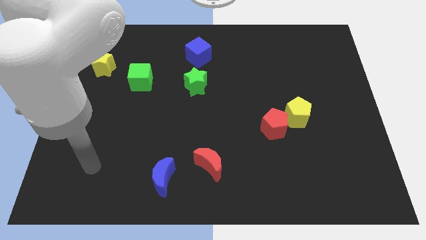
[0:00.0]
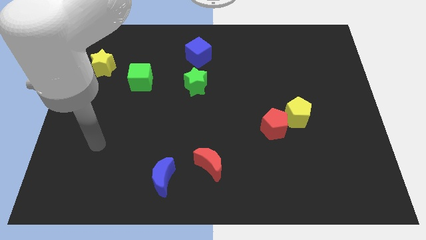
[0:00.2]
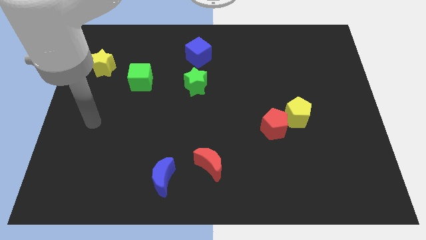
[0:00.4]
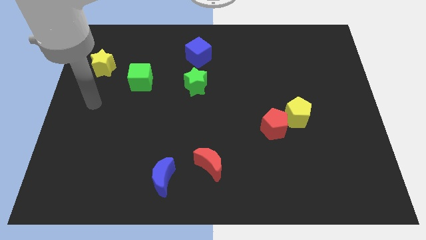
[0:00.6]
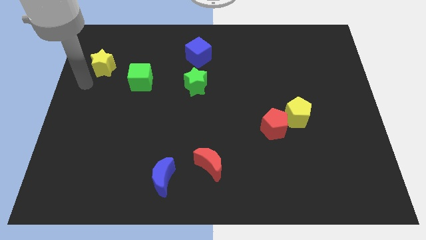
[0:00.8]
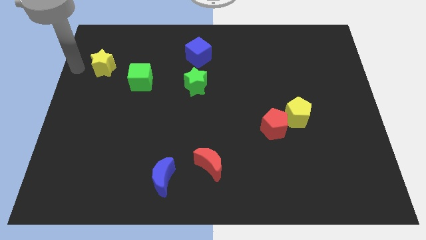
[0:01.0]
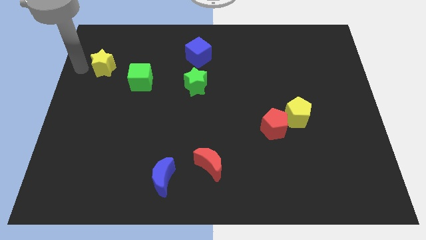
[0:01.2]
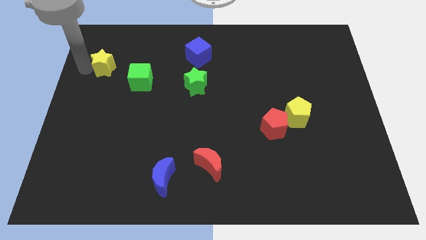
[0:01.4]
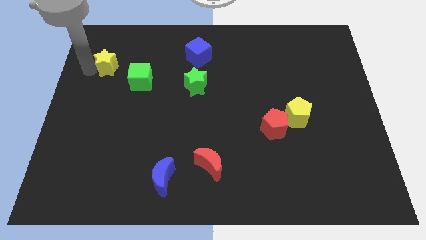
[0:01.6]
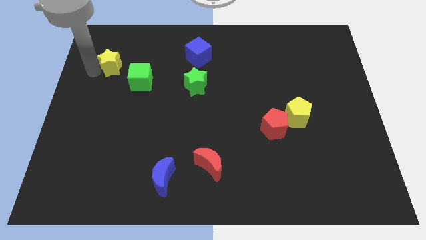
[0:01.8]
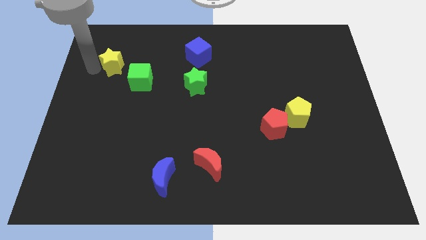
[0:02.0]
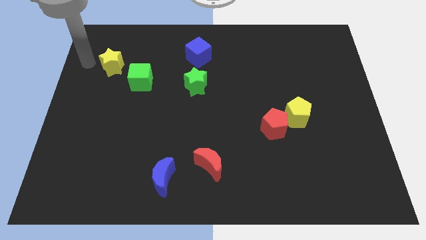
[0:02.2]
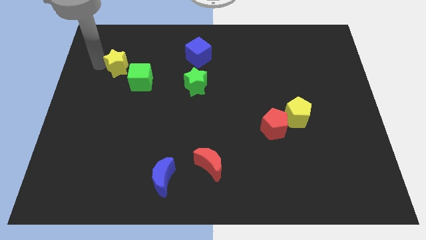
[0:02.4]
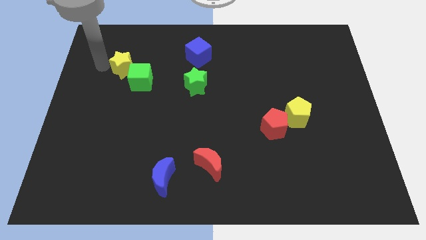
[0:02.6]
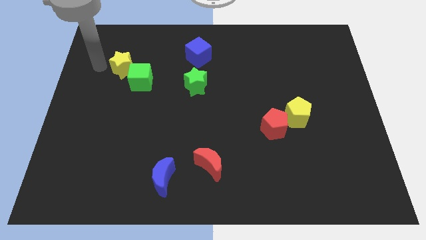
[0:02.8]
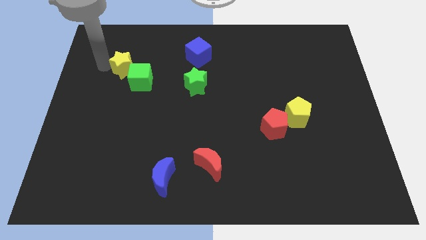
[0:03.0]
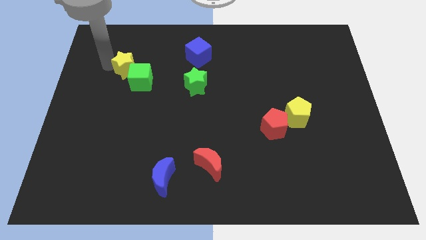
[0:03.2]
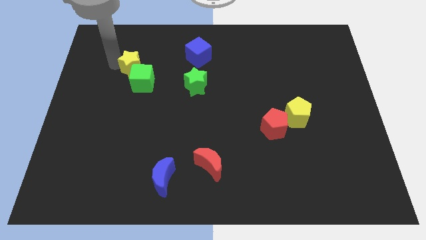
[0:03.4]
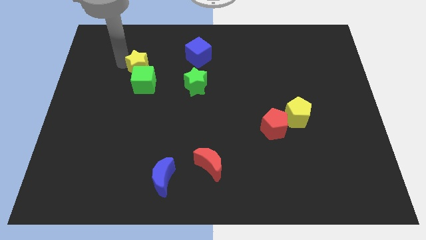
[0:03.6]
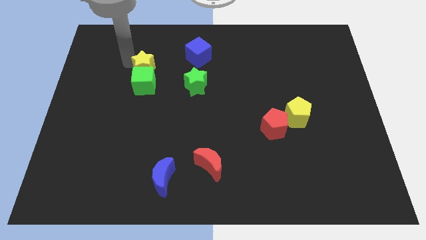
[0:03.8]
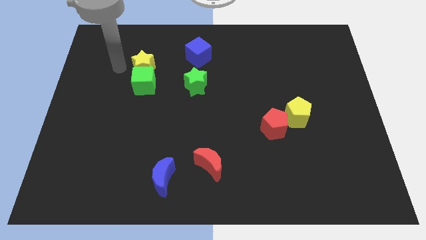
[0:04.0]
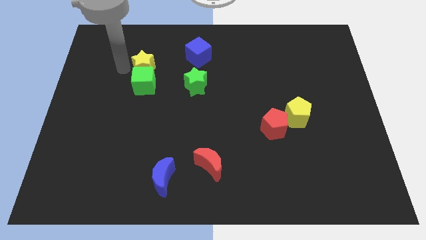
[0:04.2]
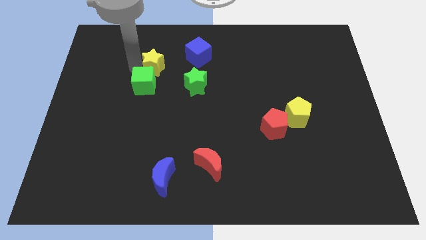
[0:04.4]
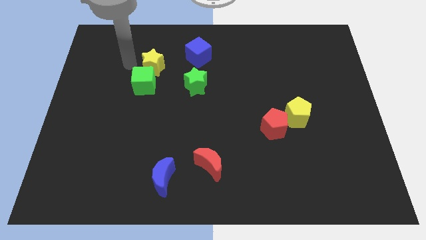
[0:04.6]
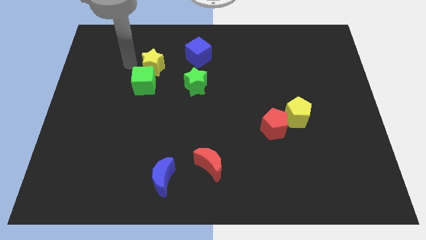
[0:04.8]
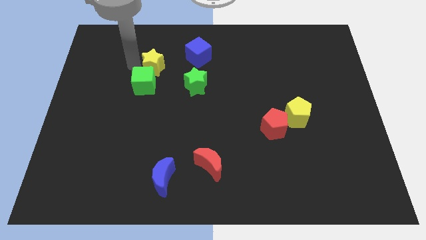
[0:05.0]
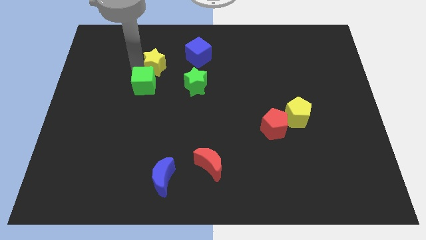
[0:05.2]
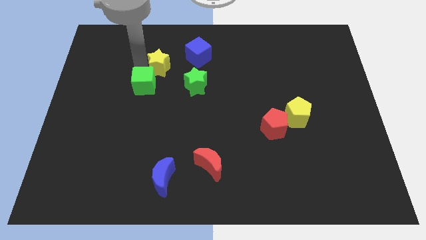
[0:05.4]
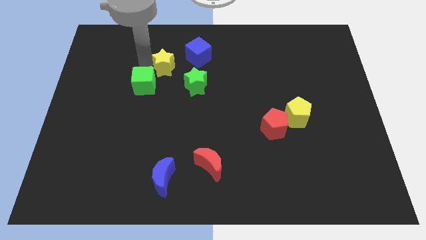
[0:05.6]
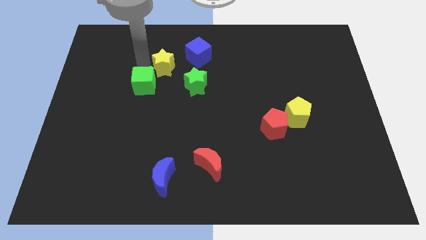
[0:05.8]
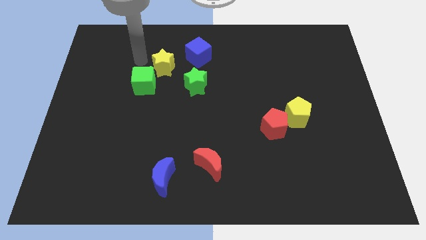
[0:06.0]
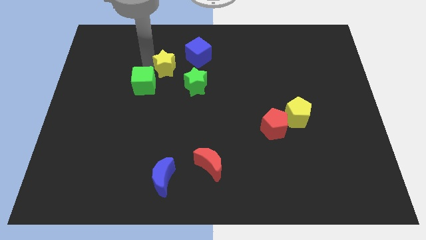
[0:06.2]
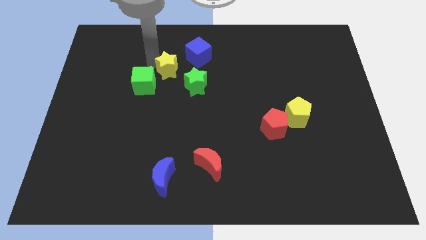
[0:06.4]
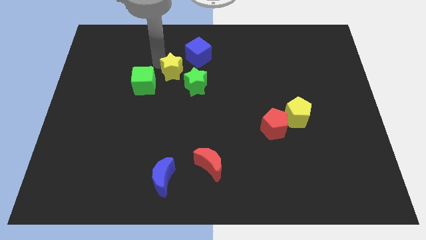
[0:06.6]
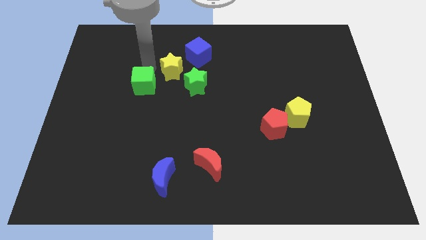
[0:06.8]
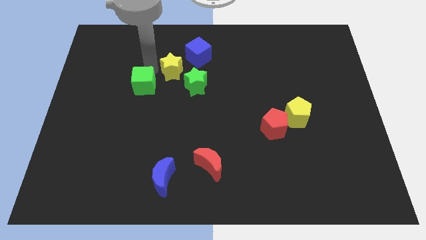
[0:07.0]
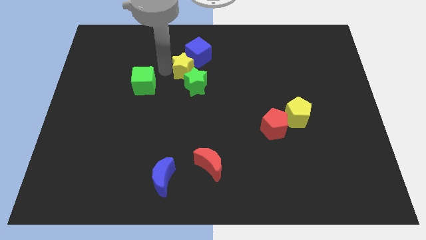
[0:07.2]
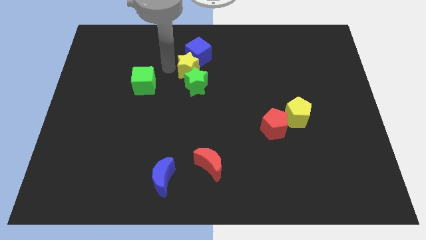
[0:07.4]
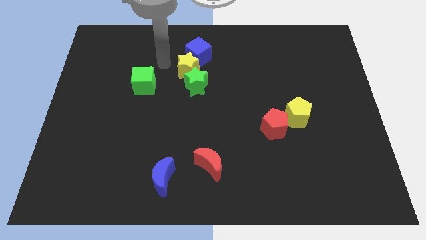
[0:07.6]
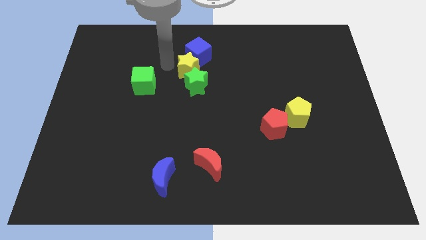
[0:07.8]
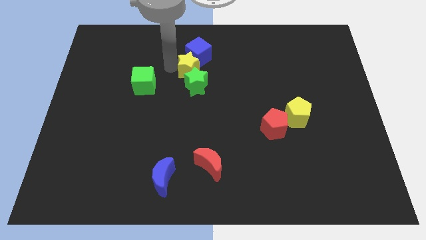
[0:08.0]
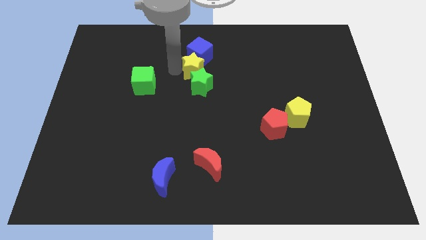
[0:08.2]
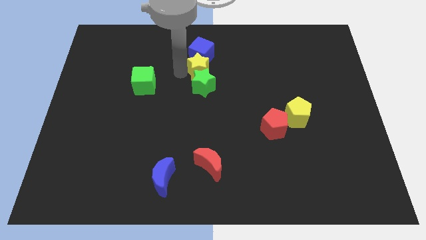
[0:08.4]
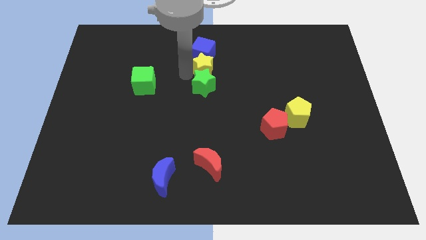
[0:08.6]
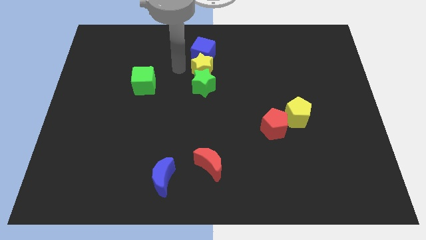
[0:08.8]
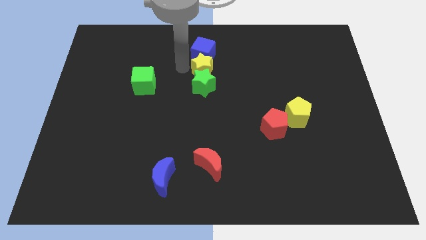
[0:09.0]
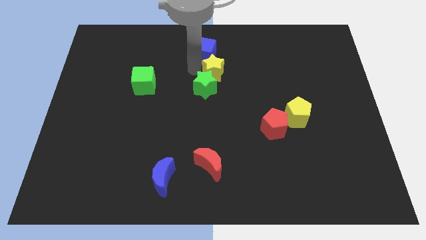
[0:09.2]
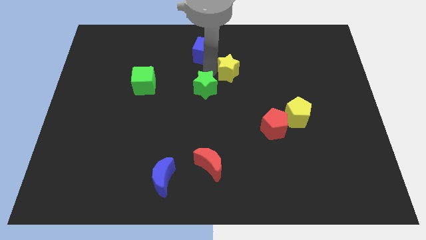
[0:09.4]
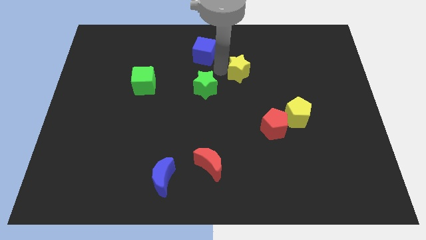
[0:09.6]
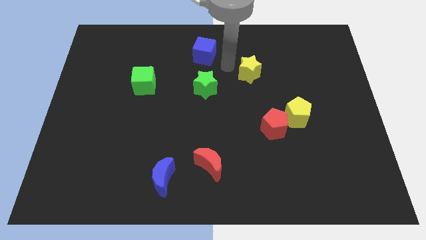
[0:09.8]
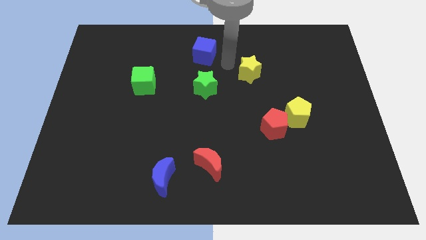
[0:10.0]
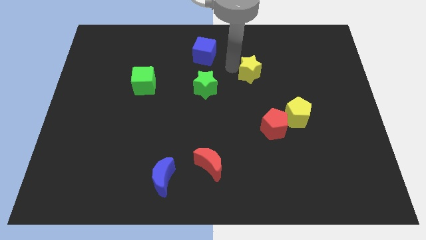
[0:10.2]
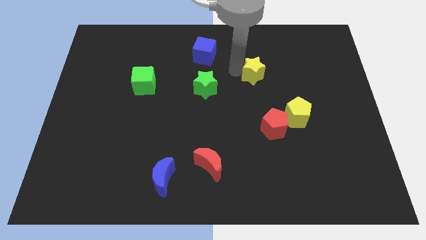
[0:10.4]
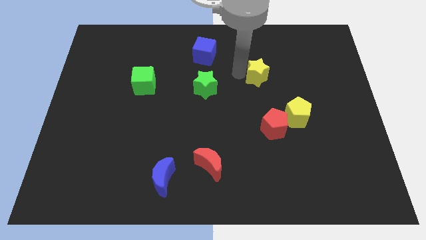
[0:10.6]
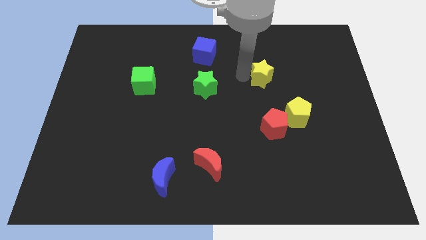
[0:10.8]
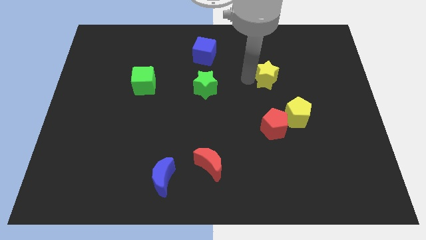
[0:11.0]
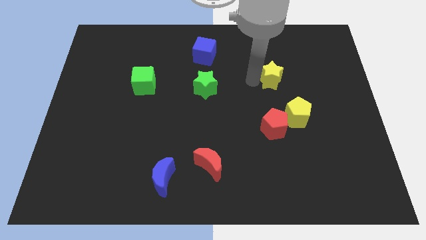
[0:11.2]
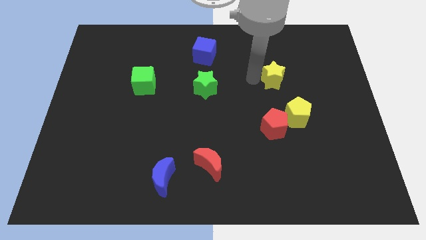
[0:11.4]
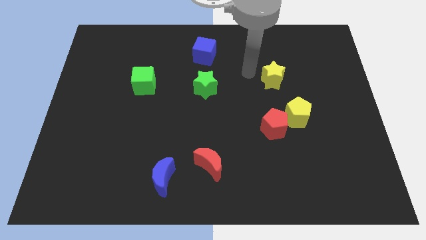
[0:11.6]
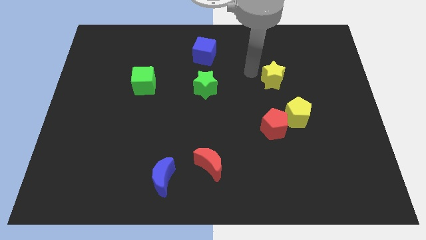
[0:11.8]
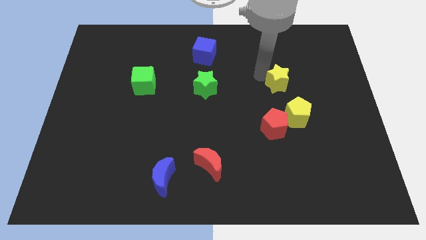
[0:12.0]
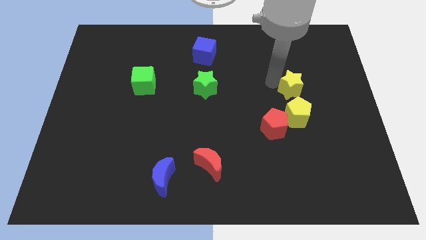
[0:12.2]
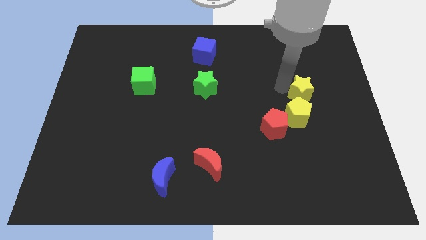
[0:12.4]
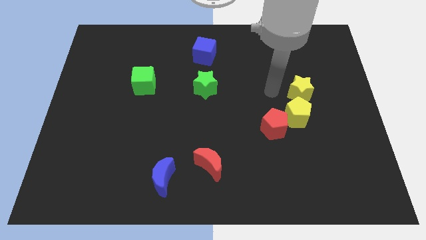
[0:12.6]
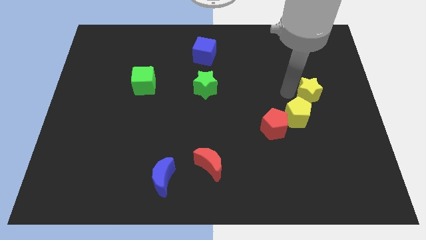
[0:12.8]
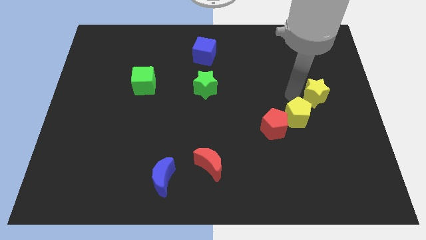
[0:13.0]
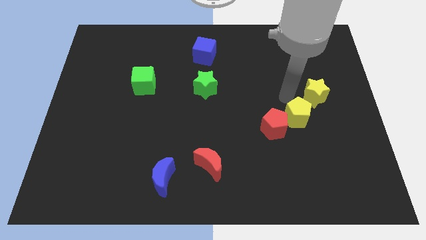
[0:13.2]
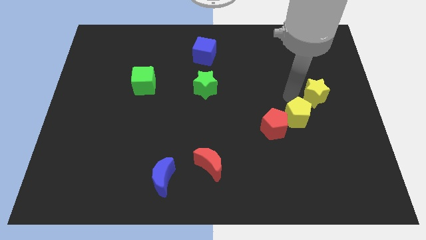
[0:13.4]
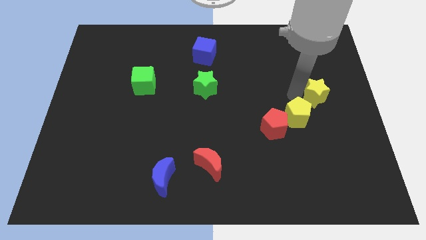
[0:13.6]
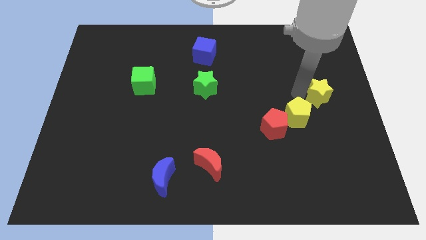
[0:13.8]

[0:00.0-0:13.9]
move the yellow star to the right side of the board
